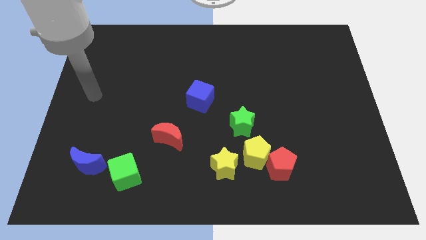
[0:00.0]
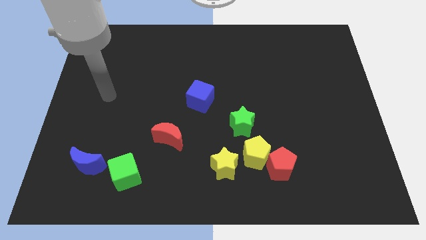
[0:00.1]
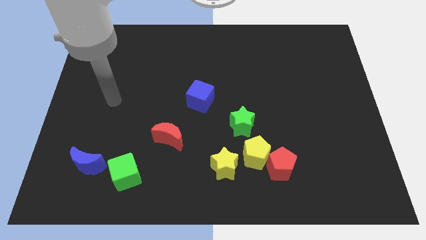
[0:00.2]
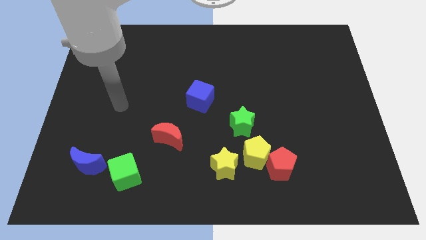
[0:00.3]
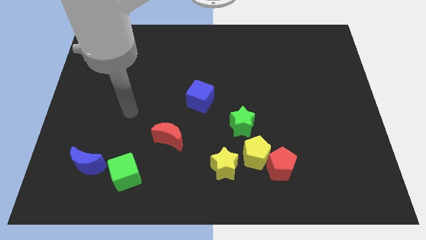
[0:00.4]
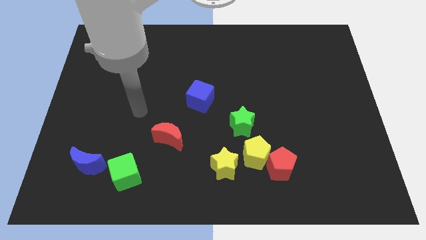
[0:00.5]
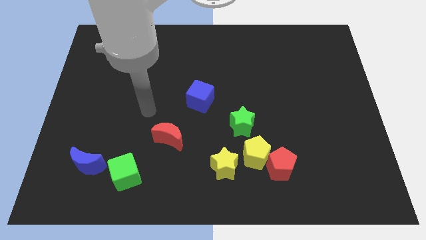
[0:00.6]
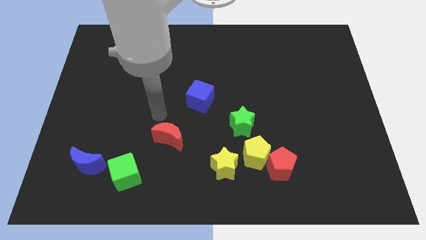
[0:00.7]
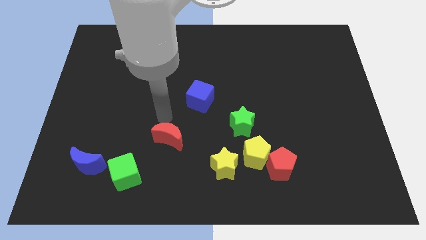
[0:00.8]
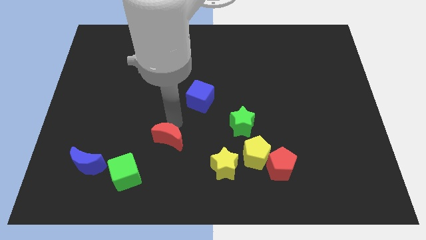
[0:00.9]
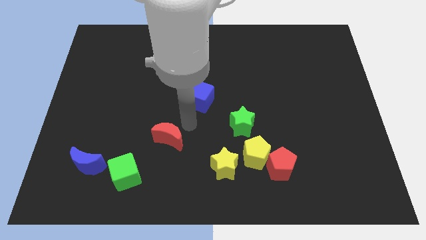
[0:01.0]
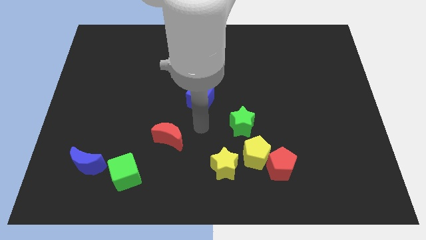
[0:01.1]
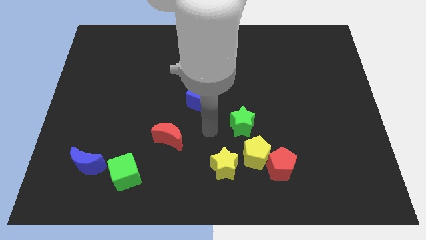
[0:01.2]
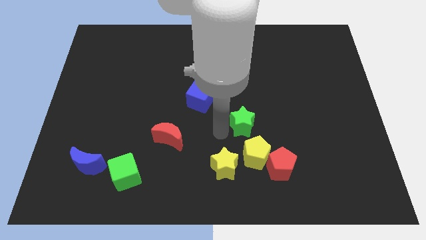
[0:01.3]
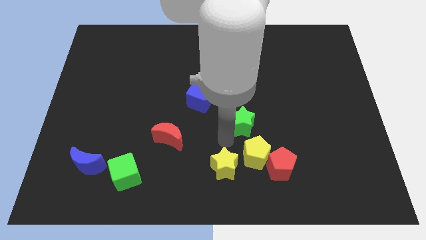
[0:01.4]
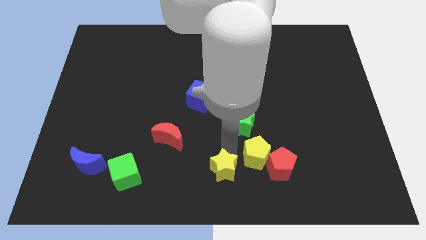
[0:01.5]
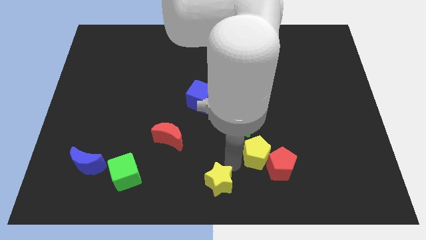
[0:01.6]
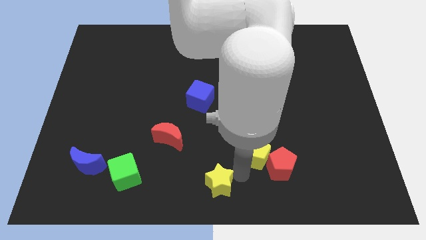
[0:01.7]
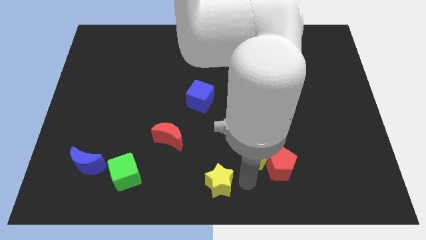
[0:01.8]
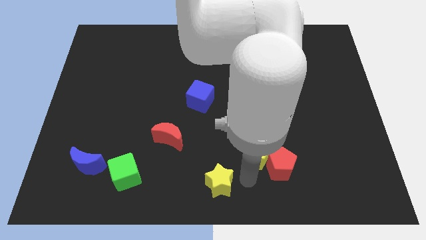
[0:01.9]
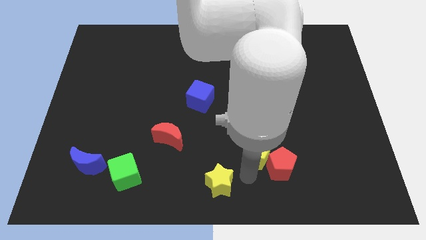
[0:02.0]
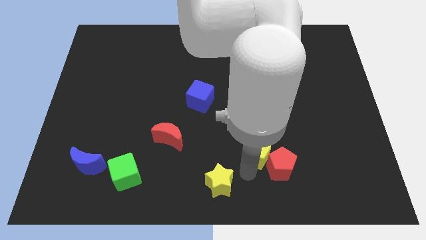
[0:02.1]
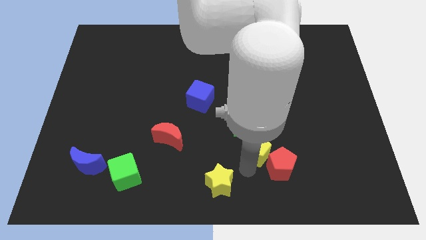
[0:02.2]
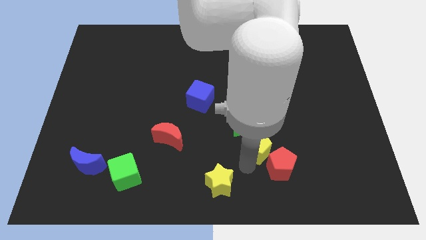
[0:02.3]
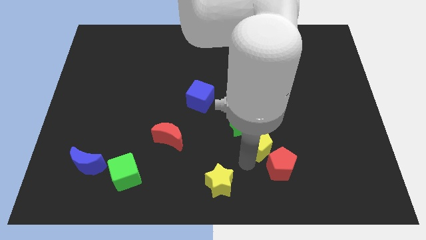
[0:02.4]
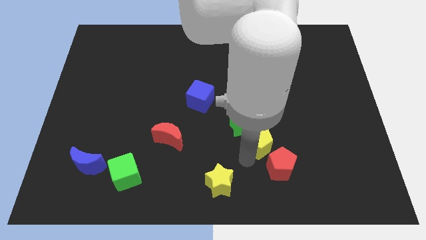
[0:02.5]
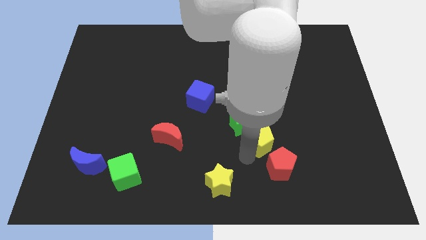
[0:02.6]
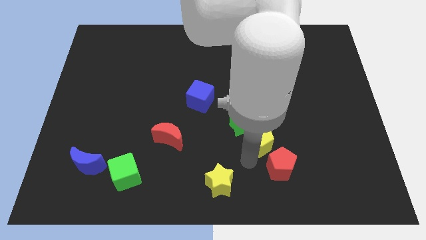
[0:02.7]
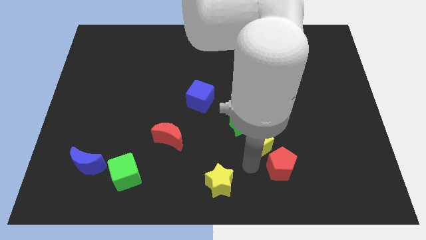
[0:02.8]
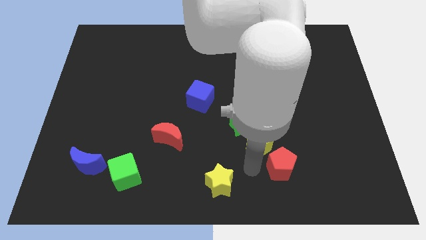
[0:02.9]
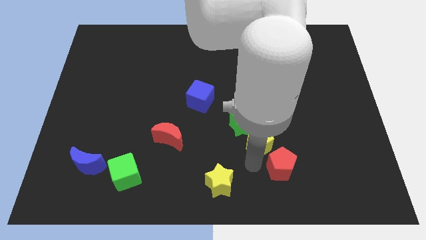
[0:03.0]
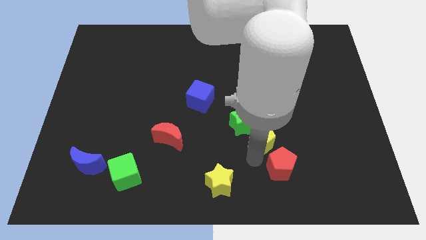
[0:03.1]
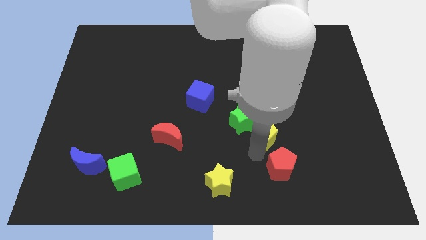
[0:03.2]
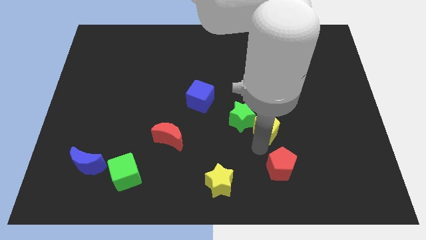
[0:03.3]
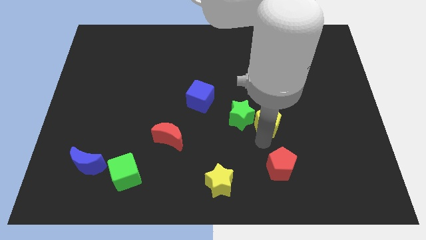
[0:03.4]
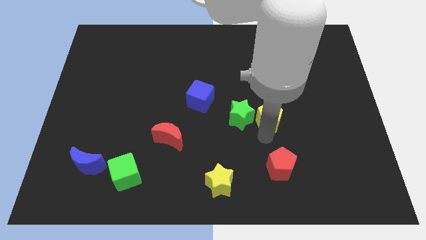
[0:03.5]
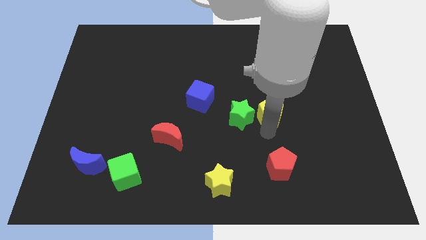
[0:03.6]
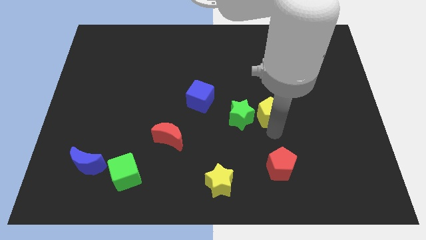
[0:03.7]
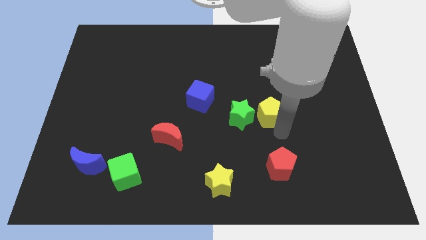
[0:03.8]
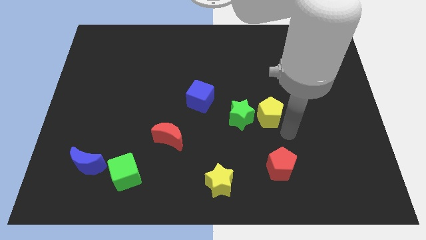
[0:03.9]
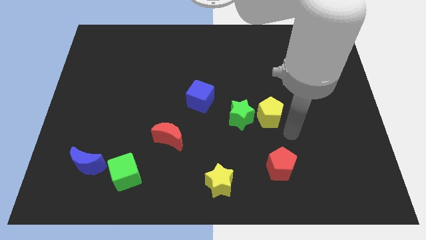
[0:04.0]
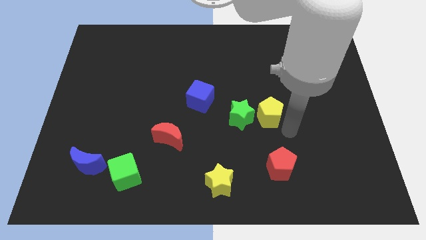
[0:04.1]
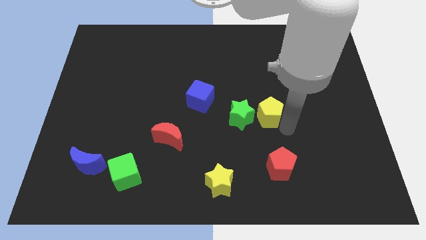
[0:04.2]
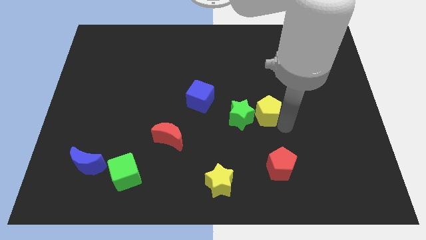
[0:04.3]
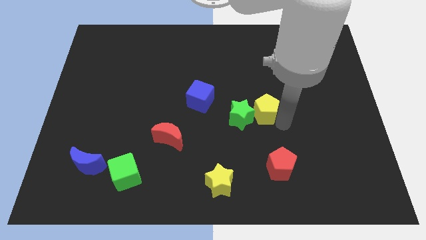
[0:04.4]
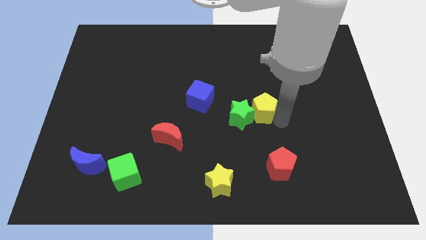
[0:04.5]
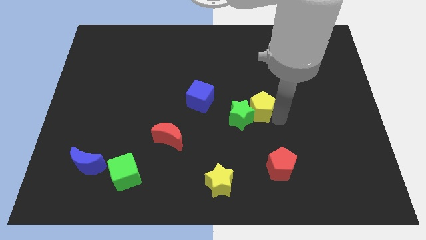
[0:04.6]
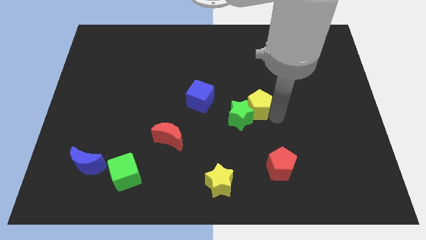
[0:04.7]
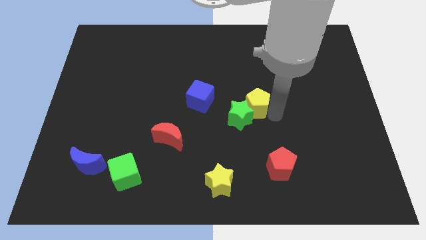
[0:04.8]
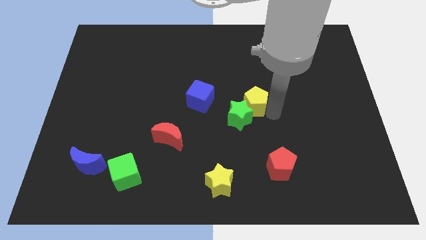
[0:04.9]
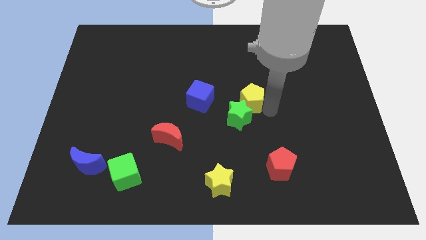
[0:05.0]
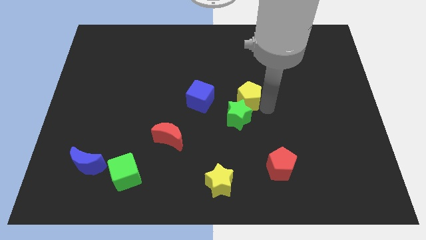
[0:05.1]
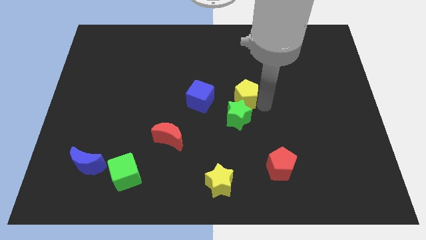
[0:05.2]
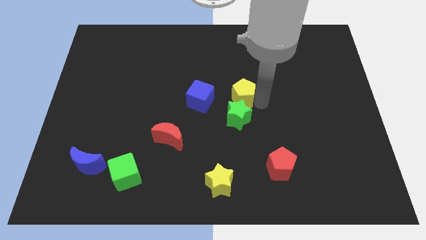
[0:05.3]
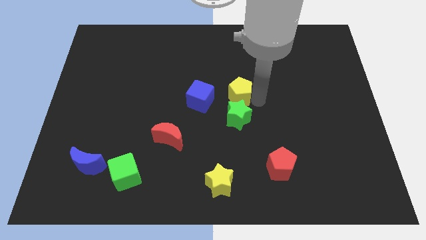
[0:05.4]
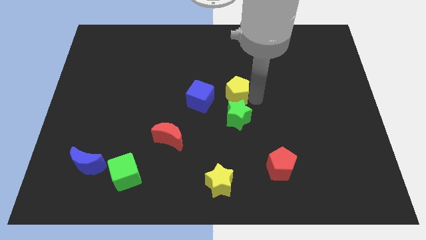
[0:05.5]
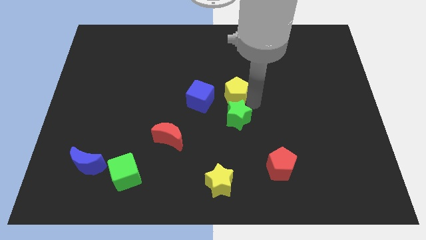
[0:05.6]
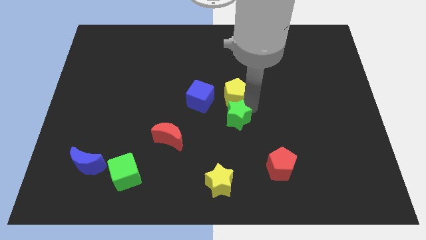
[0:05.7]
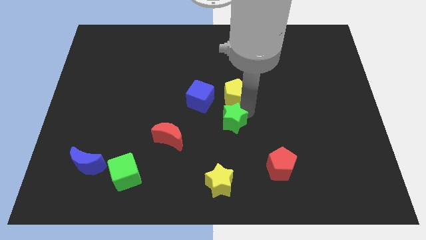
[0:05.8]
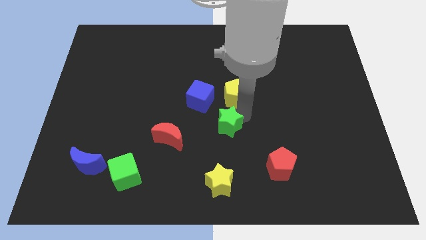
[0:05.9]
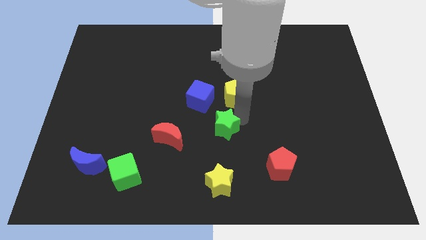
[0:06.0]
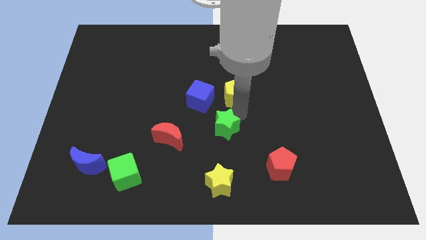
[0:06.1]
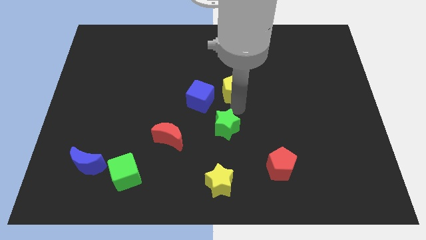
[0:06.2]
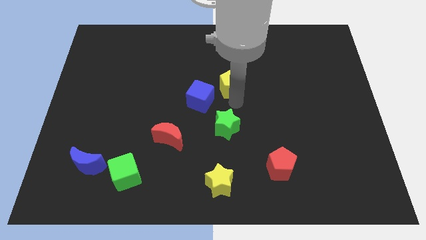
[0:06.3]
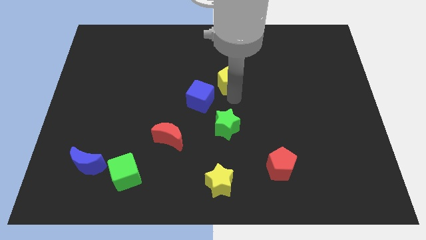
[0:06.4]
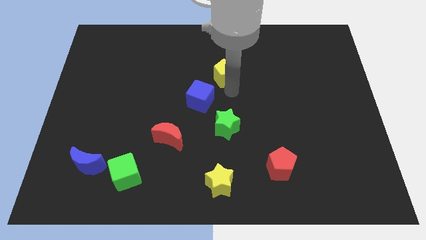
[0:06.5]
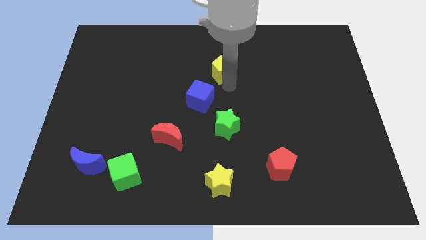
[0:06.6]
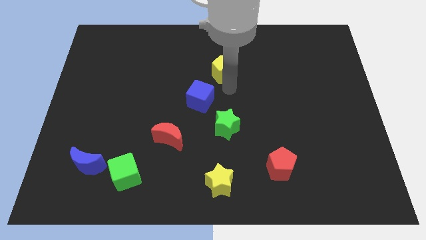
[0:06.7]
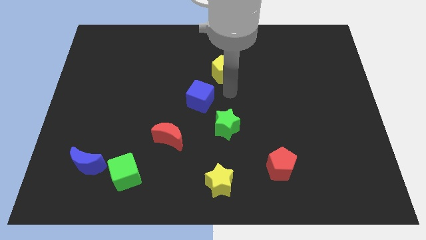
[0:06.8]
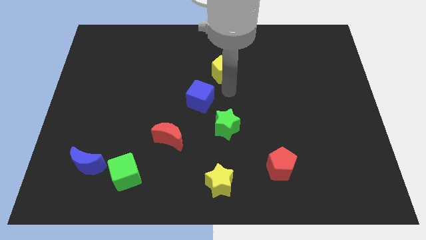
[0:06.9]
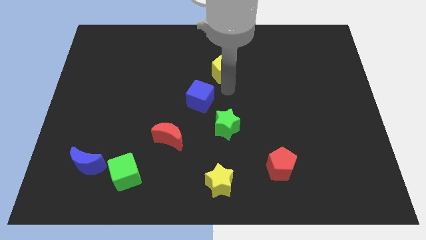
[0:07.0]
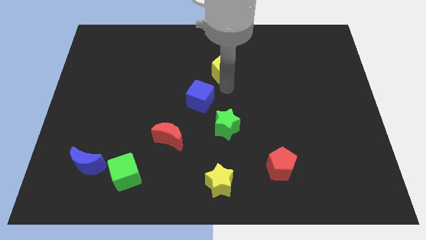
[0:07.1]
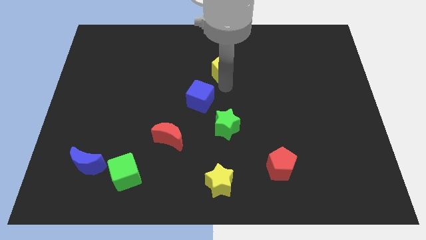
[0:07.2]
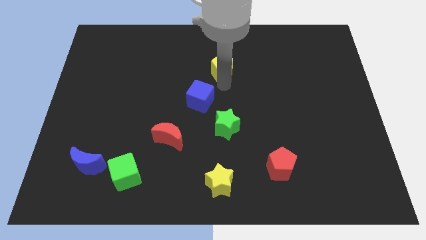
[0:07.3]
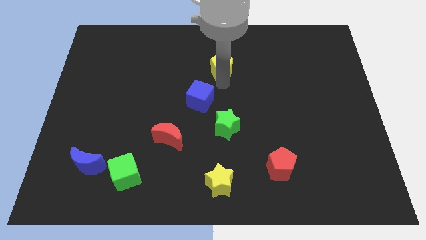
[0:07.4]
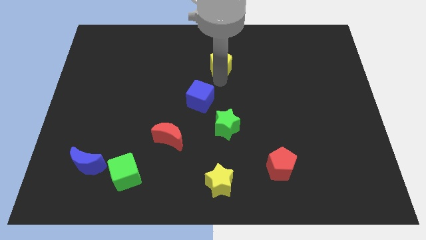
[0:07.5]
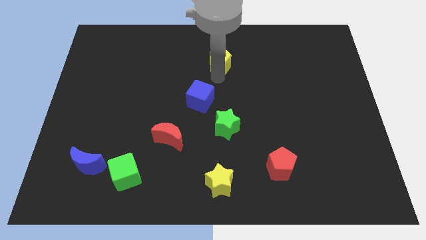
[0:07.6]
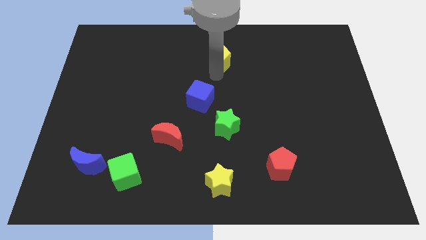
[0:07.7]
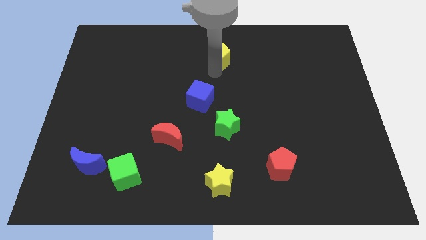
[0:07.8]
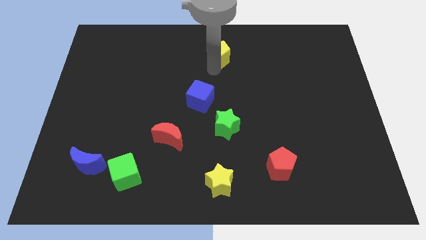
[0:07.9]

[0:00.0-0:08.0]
push the yellow pentagon to the towards your base
